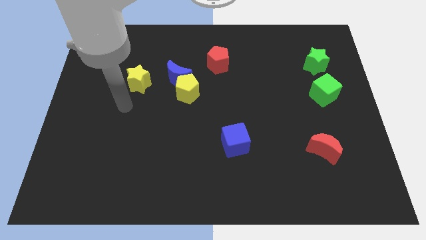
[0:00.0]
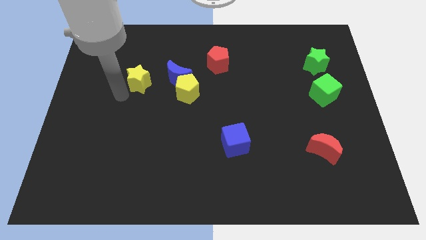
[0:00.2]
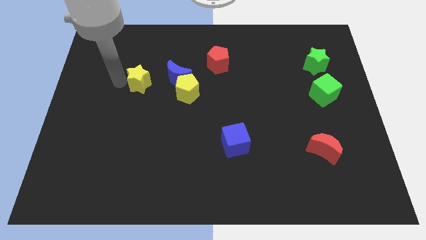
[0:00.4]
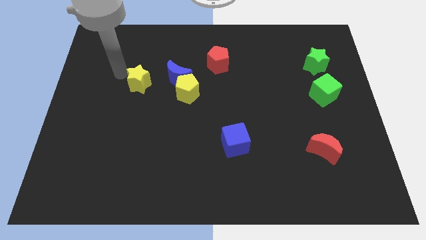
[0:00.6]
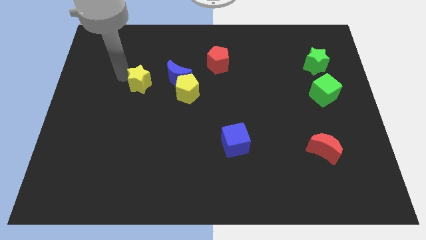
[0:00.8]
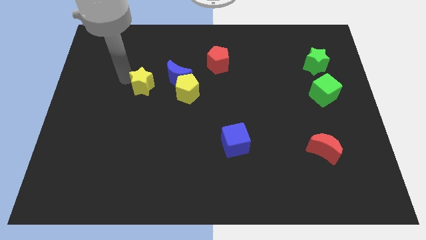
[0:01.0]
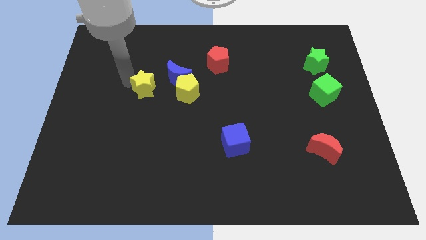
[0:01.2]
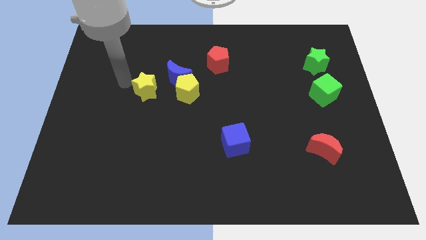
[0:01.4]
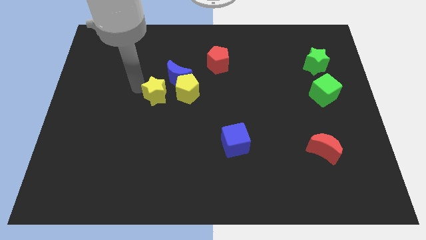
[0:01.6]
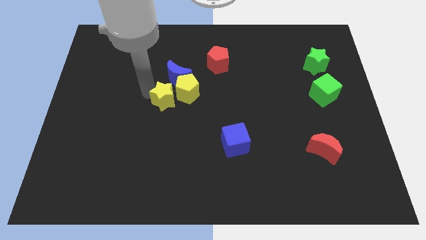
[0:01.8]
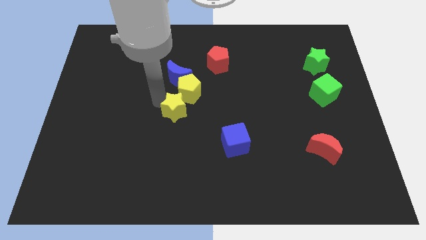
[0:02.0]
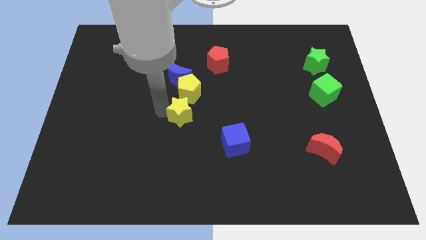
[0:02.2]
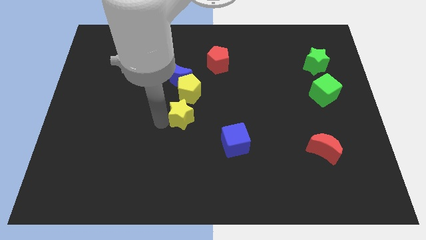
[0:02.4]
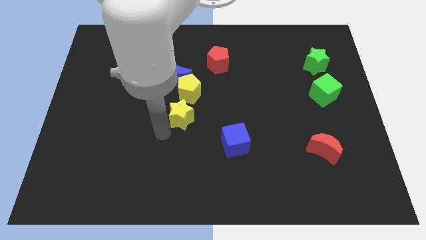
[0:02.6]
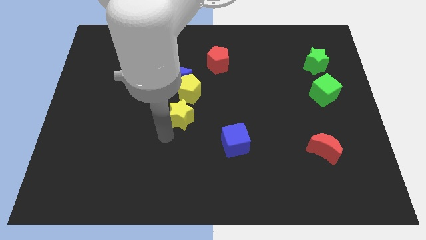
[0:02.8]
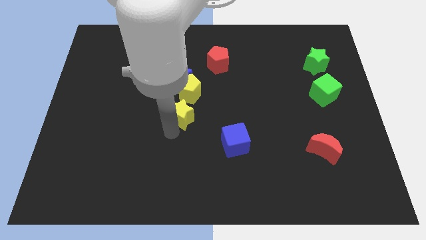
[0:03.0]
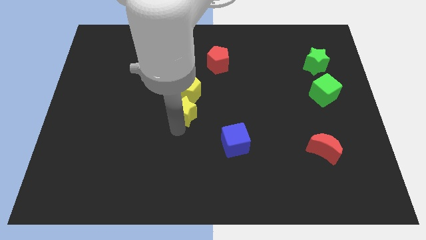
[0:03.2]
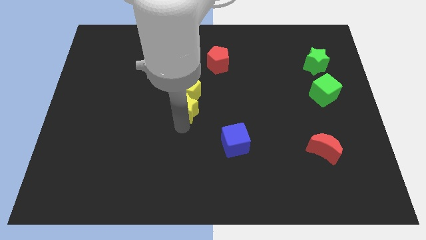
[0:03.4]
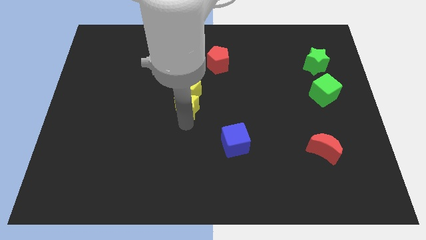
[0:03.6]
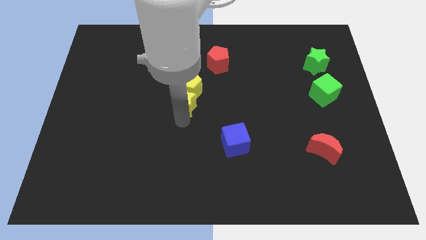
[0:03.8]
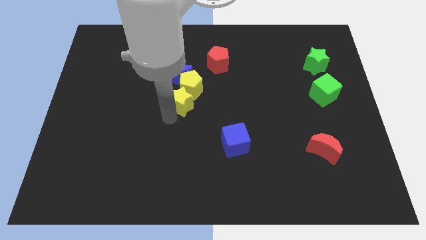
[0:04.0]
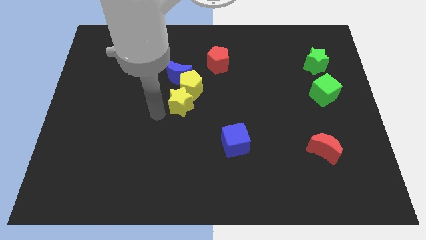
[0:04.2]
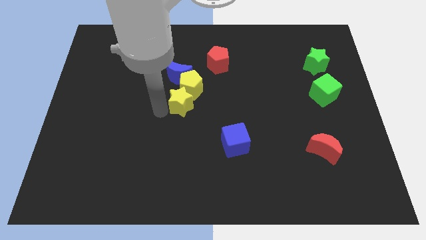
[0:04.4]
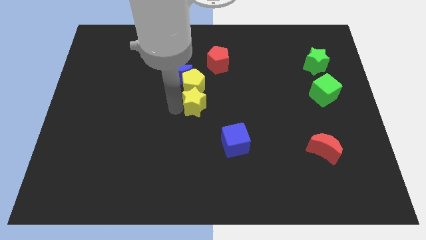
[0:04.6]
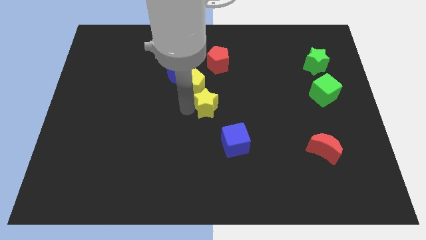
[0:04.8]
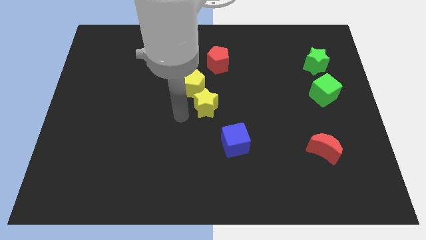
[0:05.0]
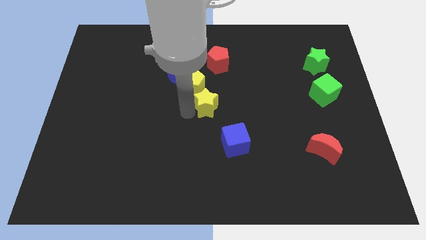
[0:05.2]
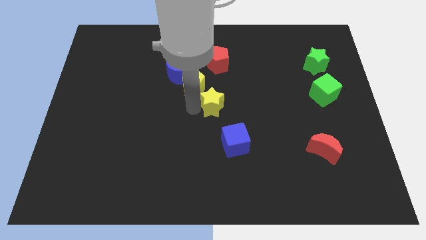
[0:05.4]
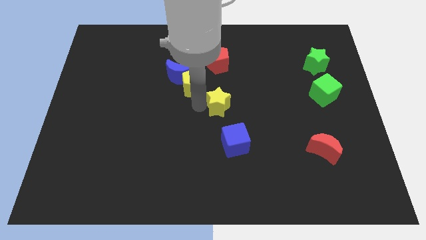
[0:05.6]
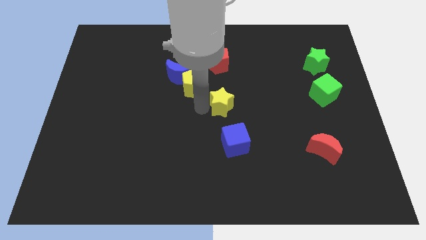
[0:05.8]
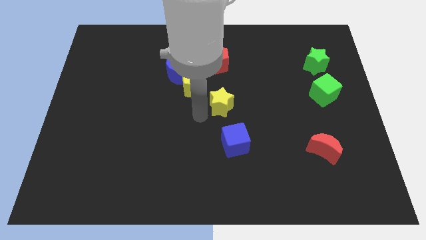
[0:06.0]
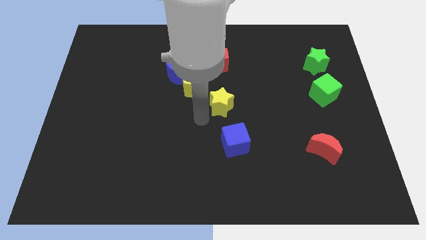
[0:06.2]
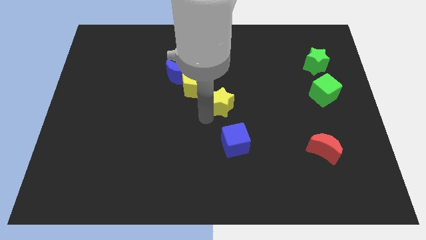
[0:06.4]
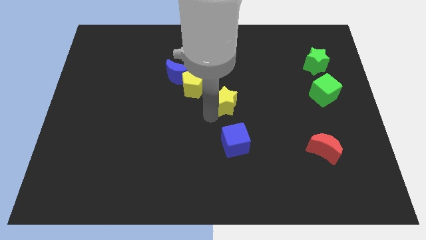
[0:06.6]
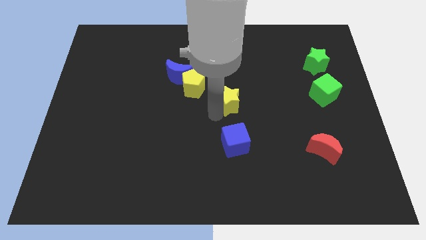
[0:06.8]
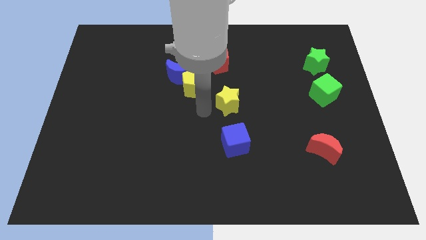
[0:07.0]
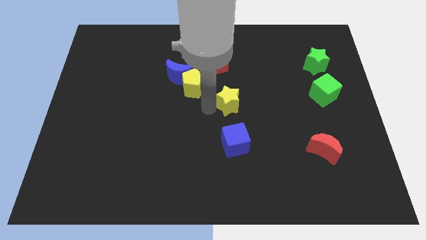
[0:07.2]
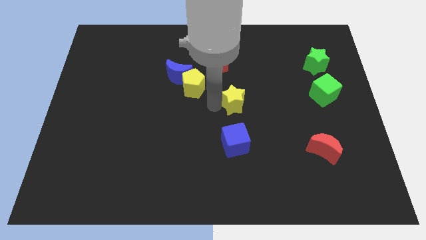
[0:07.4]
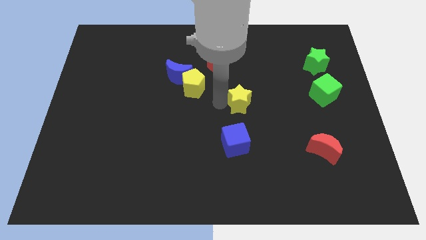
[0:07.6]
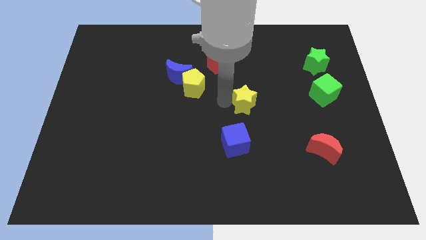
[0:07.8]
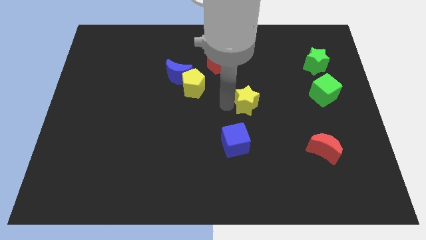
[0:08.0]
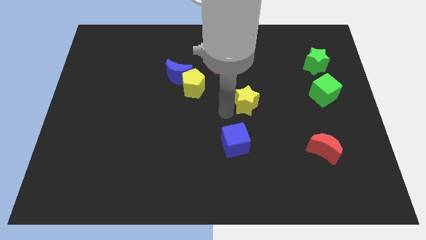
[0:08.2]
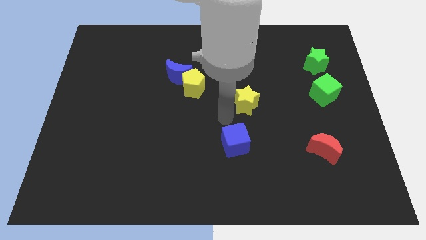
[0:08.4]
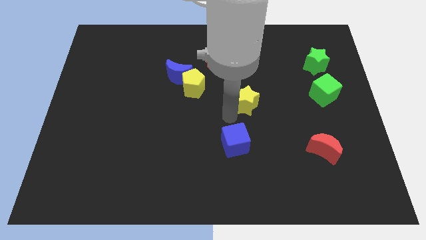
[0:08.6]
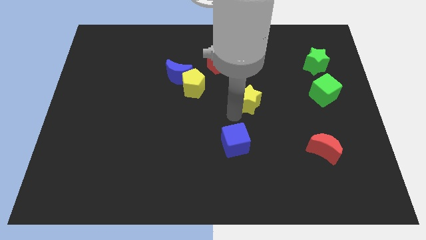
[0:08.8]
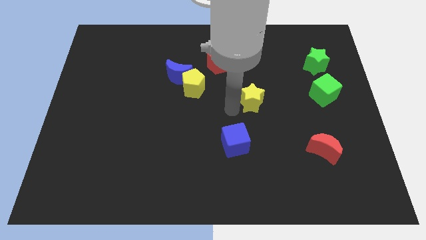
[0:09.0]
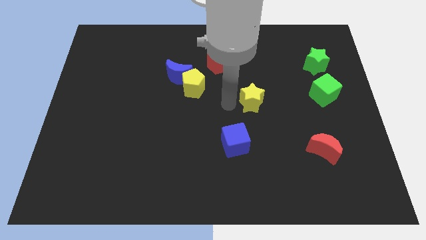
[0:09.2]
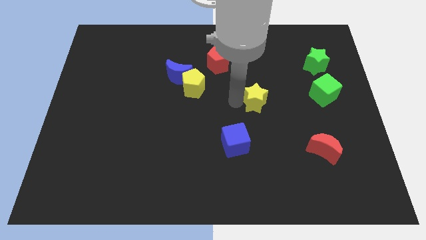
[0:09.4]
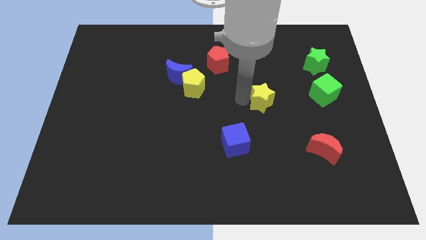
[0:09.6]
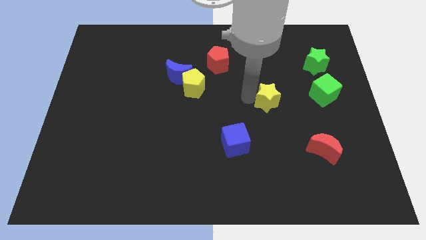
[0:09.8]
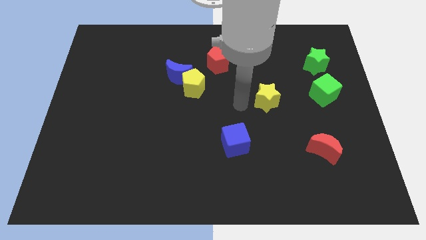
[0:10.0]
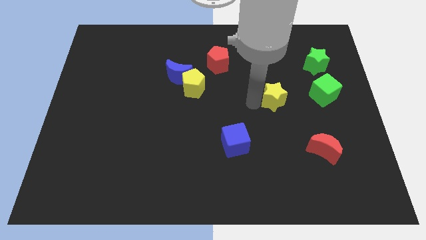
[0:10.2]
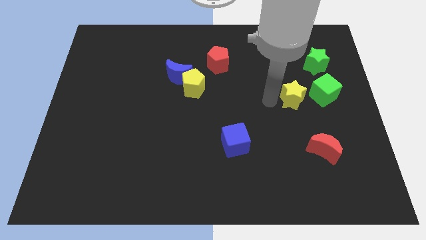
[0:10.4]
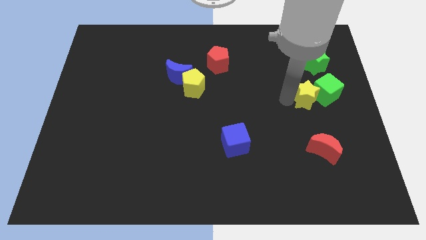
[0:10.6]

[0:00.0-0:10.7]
slide the yellow star to the green cube
